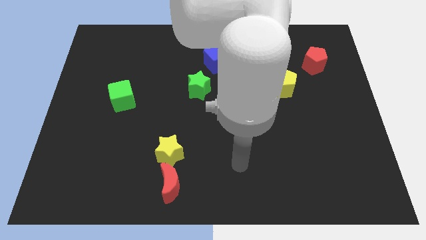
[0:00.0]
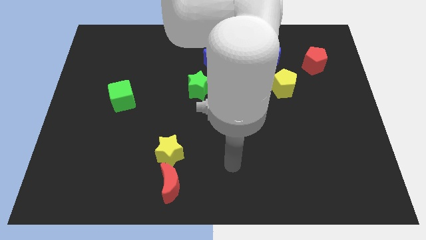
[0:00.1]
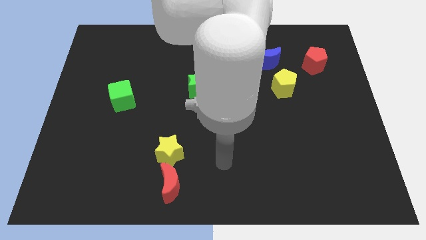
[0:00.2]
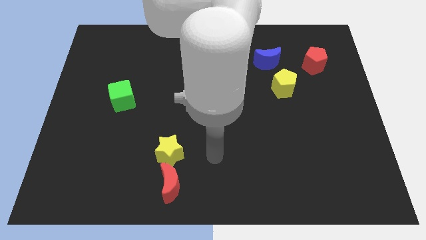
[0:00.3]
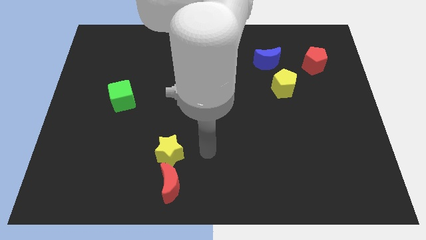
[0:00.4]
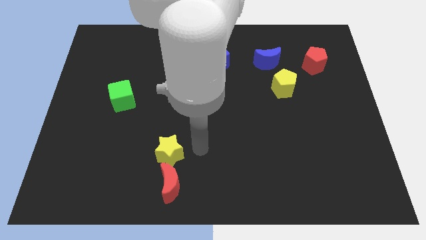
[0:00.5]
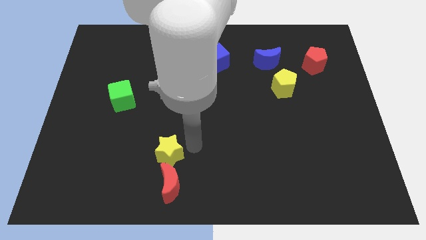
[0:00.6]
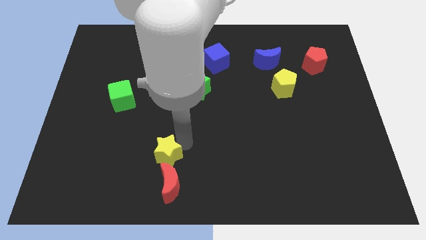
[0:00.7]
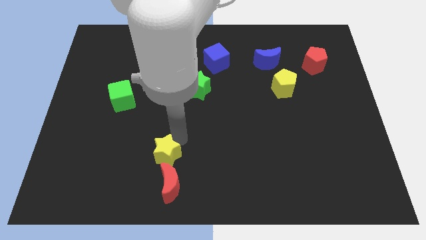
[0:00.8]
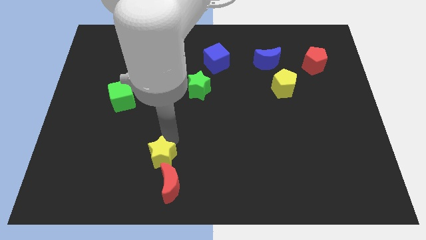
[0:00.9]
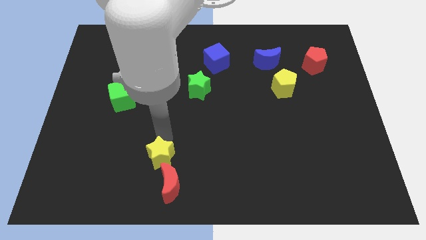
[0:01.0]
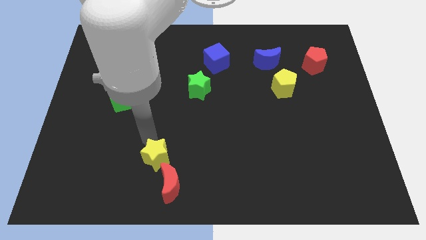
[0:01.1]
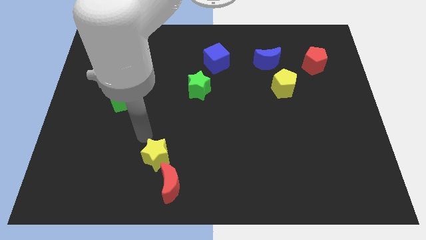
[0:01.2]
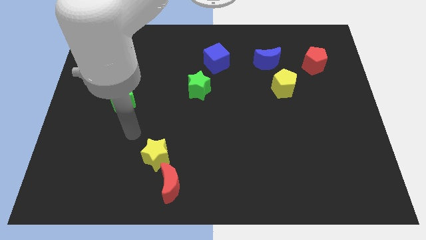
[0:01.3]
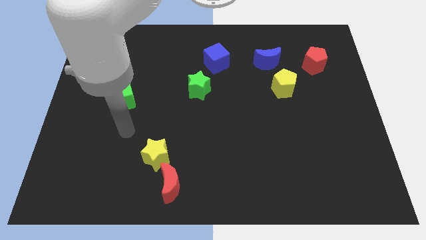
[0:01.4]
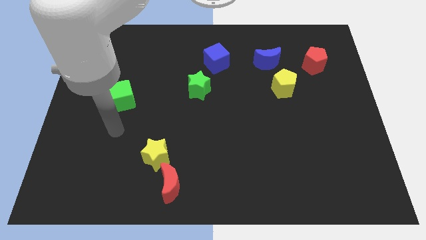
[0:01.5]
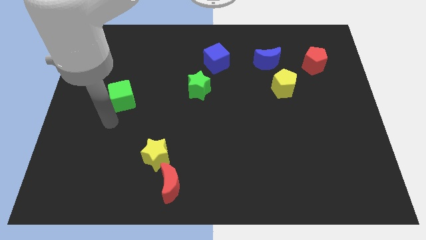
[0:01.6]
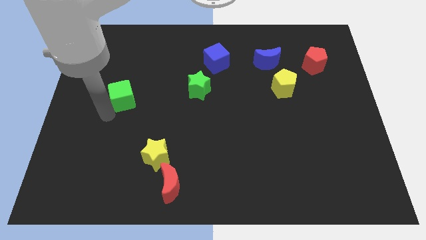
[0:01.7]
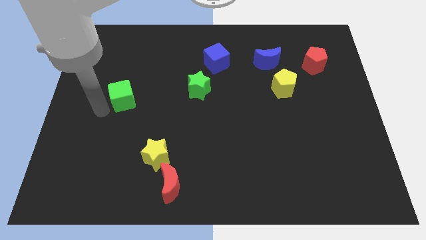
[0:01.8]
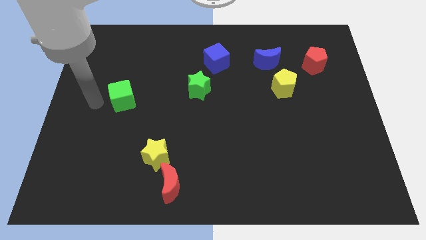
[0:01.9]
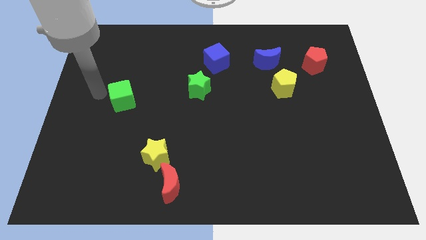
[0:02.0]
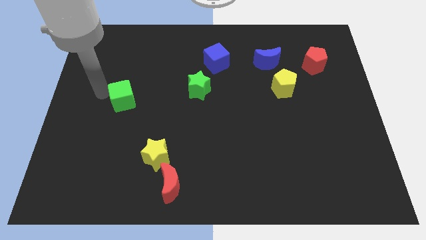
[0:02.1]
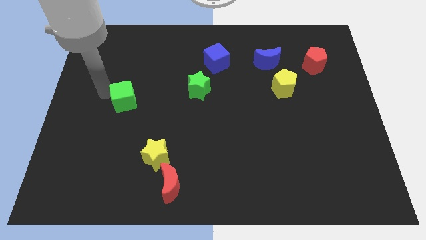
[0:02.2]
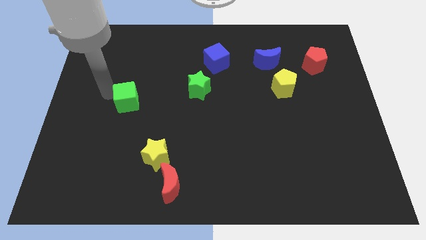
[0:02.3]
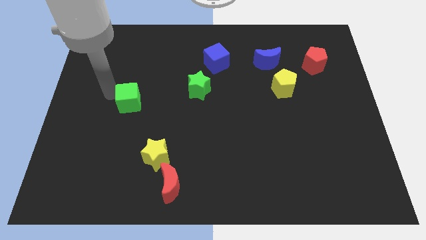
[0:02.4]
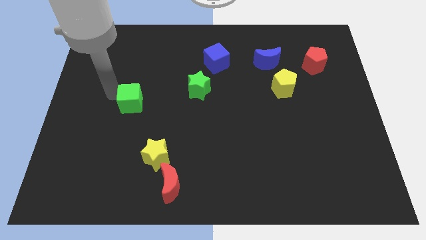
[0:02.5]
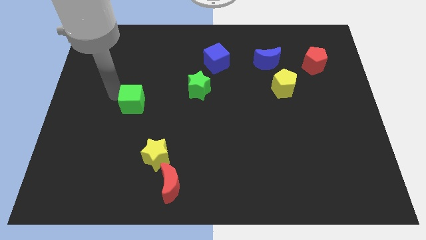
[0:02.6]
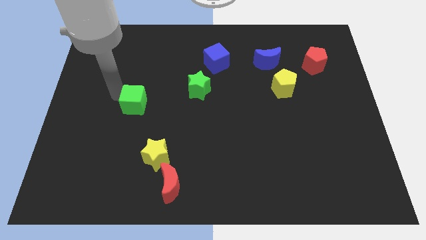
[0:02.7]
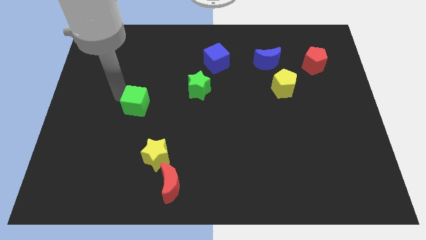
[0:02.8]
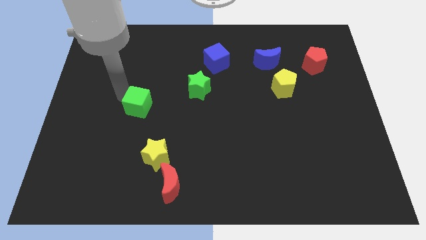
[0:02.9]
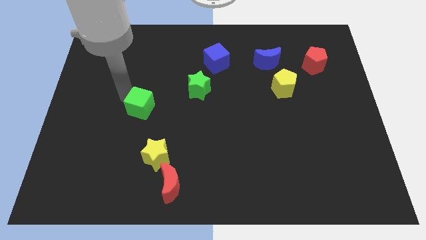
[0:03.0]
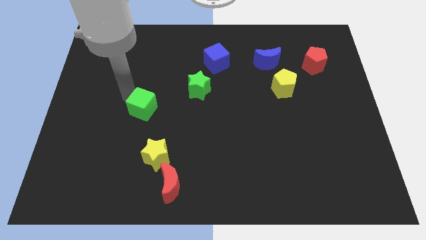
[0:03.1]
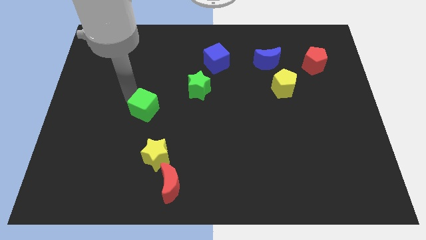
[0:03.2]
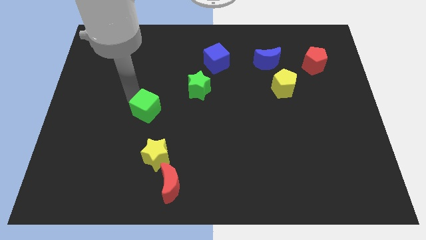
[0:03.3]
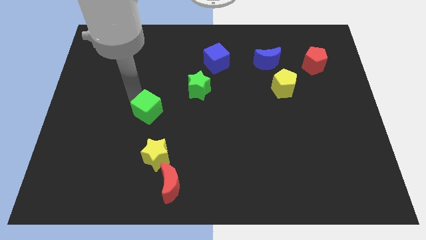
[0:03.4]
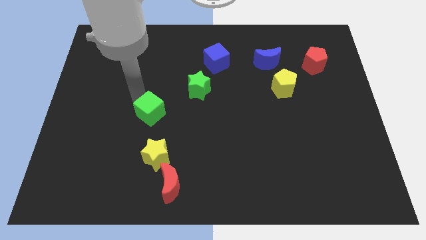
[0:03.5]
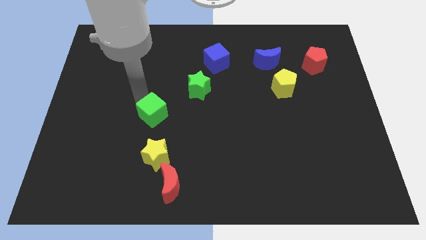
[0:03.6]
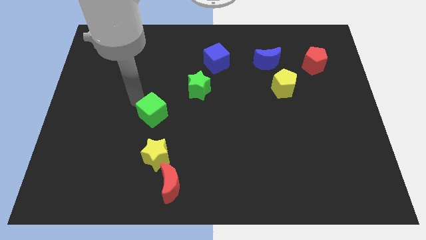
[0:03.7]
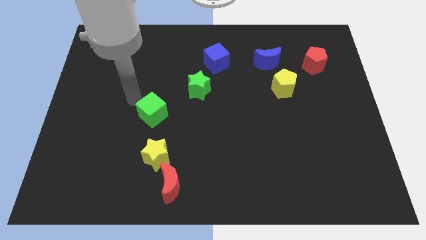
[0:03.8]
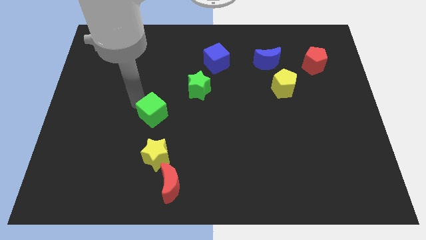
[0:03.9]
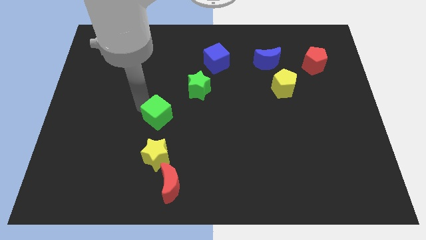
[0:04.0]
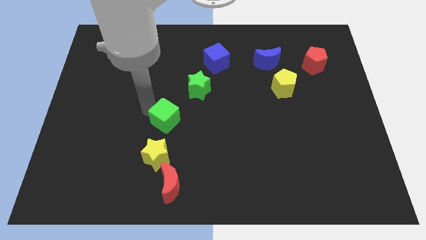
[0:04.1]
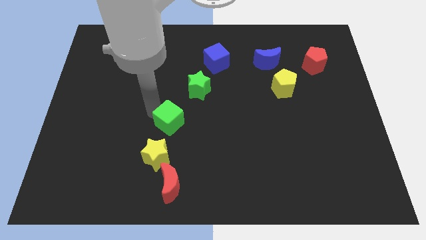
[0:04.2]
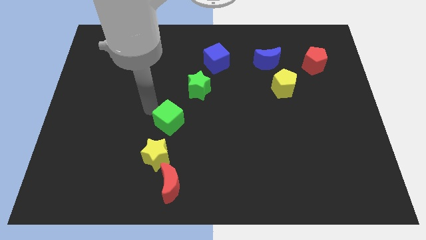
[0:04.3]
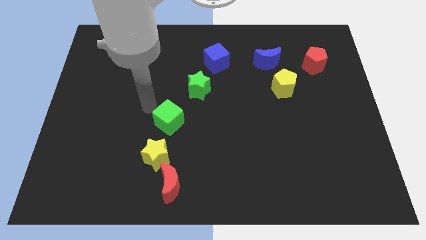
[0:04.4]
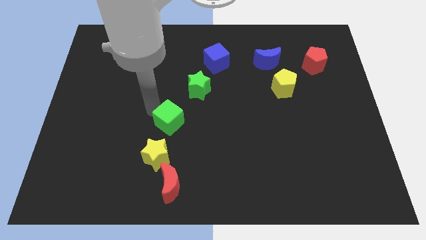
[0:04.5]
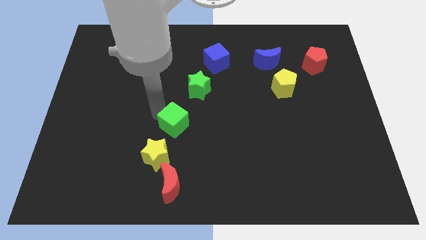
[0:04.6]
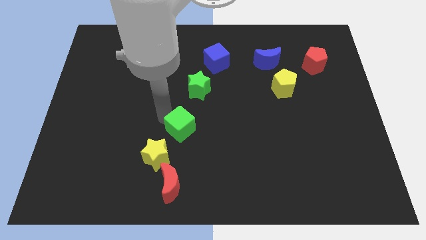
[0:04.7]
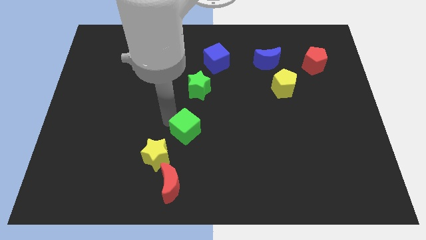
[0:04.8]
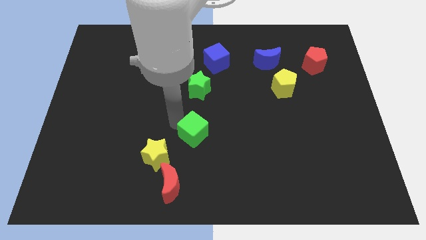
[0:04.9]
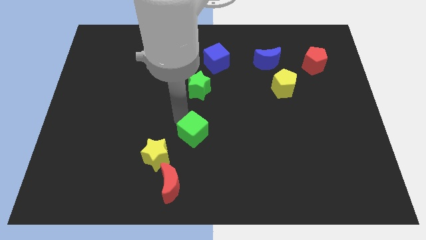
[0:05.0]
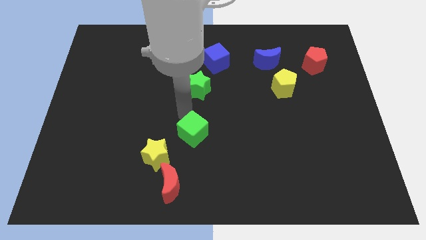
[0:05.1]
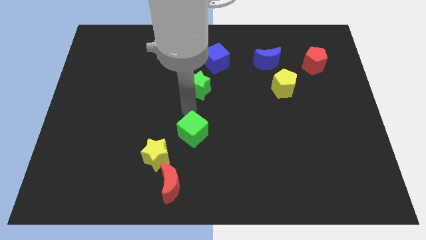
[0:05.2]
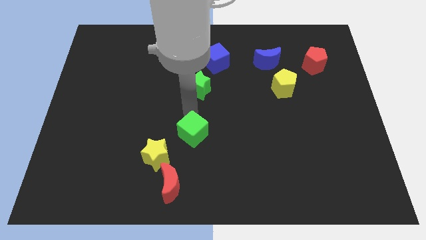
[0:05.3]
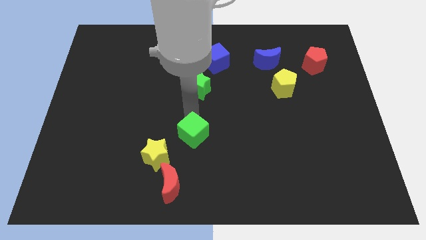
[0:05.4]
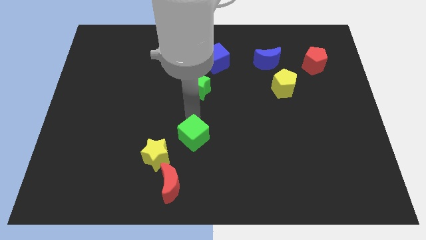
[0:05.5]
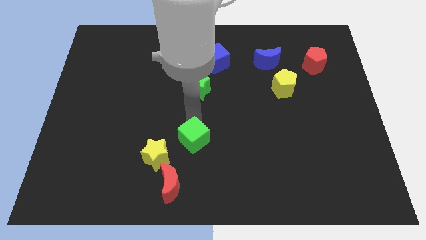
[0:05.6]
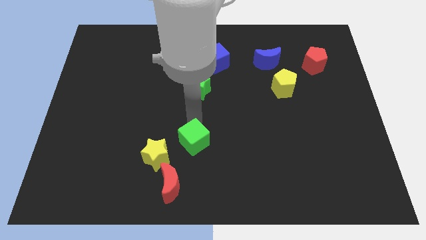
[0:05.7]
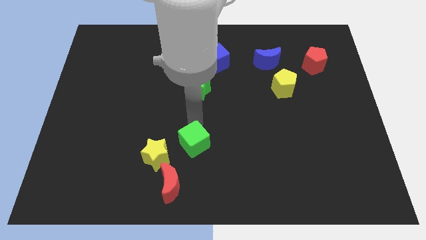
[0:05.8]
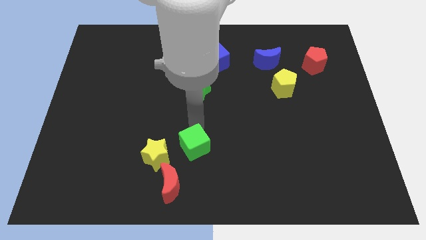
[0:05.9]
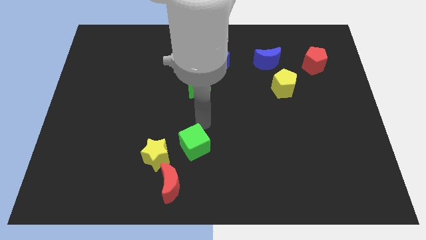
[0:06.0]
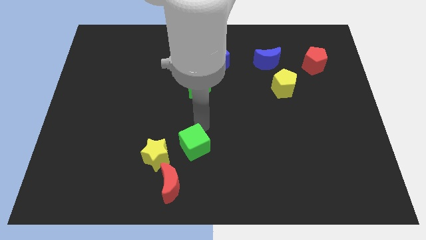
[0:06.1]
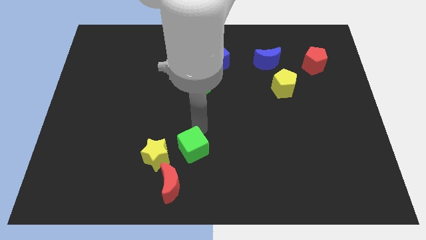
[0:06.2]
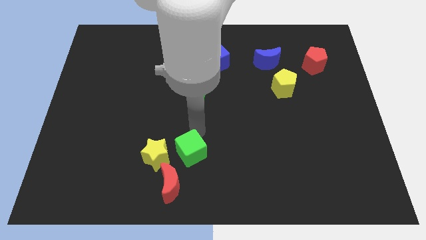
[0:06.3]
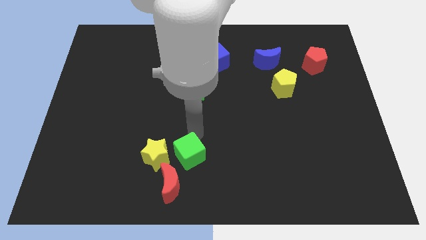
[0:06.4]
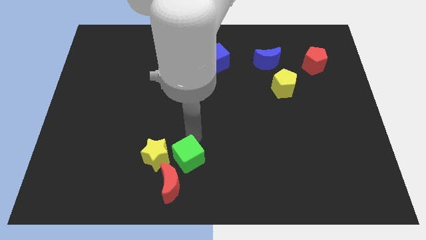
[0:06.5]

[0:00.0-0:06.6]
put the green cube to the bottom right side of the yellow star

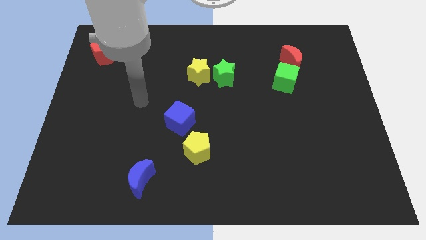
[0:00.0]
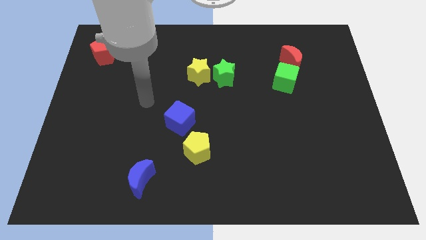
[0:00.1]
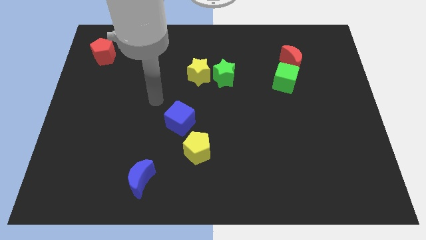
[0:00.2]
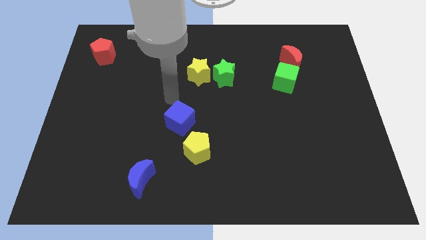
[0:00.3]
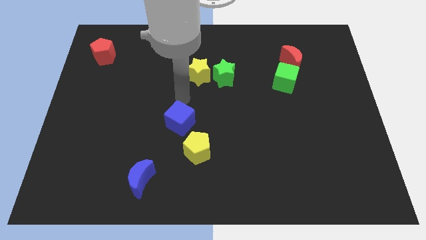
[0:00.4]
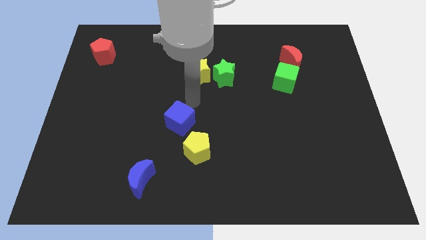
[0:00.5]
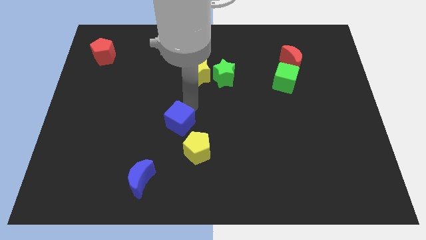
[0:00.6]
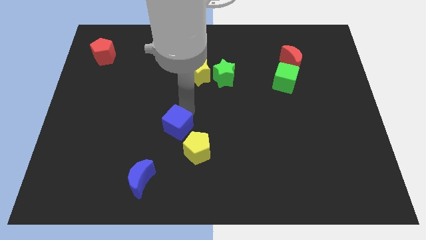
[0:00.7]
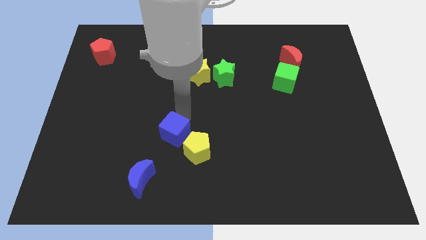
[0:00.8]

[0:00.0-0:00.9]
put the blue cube left of the yellow pentagon
